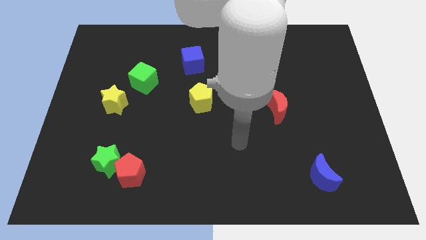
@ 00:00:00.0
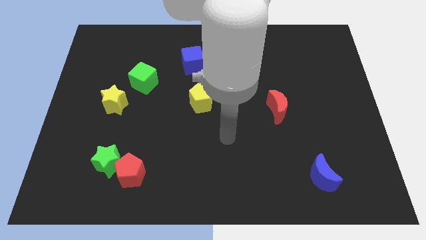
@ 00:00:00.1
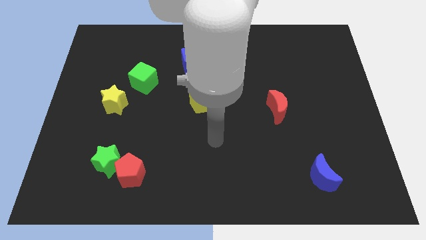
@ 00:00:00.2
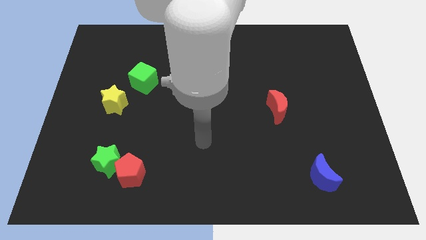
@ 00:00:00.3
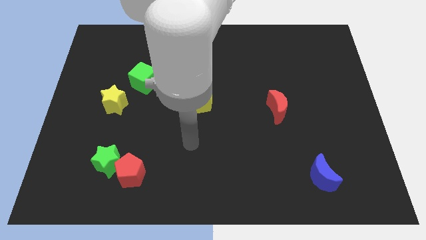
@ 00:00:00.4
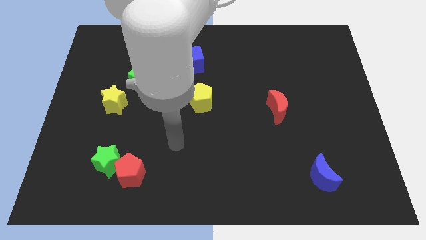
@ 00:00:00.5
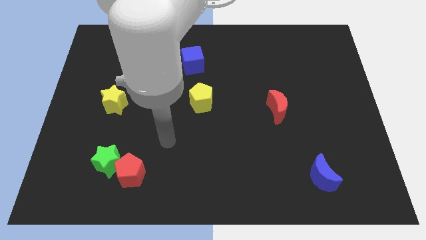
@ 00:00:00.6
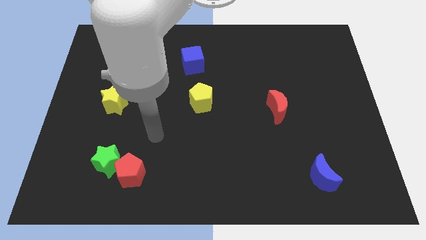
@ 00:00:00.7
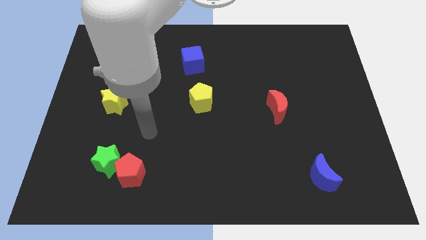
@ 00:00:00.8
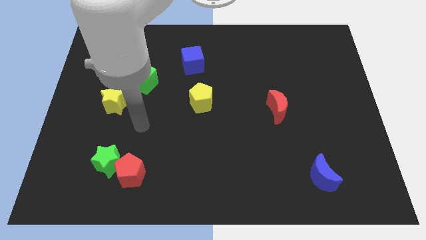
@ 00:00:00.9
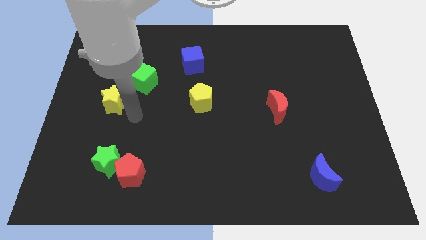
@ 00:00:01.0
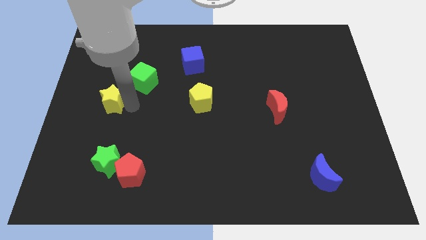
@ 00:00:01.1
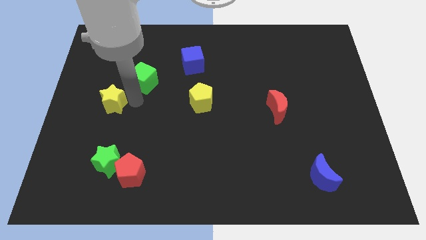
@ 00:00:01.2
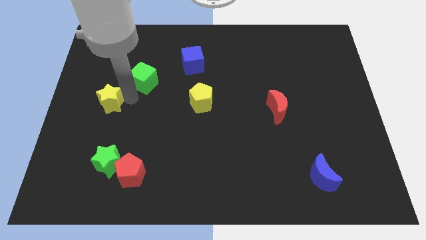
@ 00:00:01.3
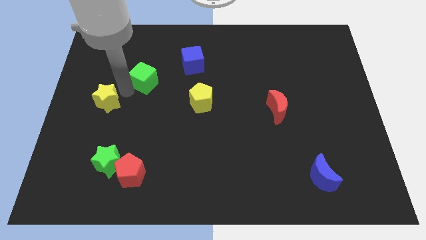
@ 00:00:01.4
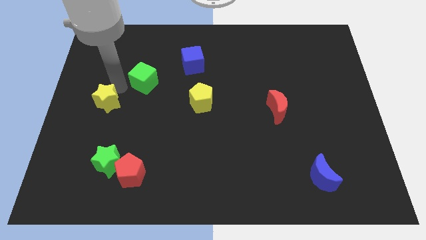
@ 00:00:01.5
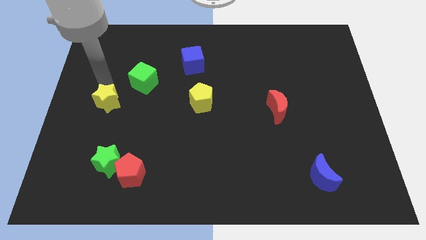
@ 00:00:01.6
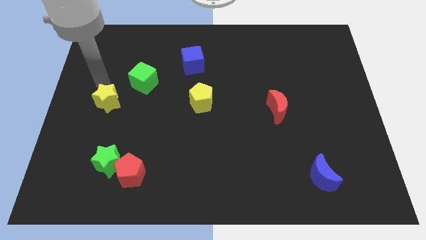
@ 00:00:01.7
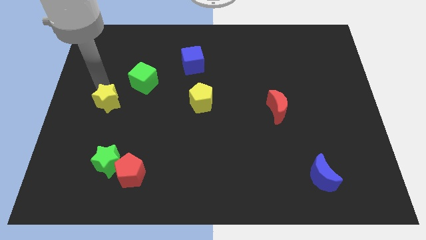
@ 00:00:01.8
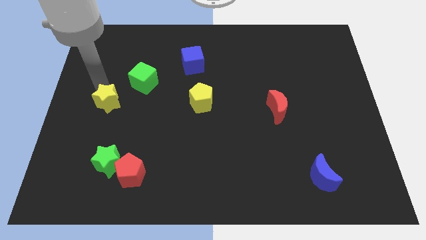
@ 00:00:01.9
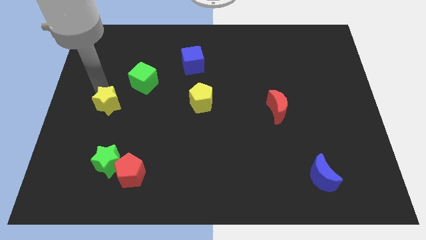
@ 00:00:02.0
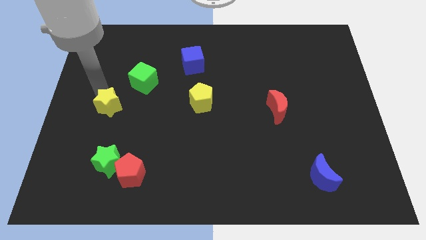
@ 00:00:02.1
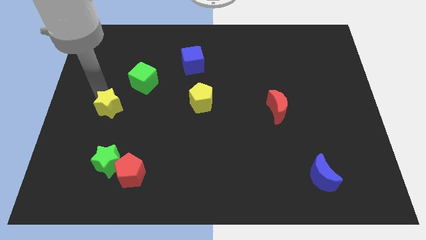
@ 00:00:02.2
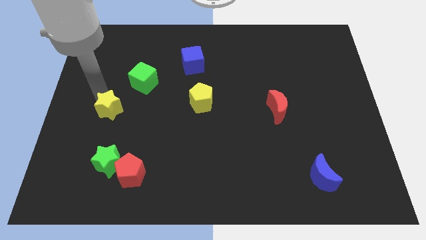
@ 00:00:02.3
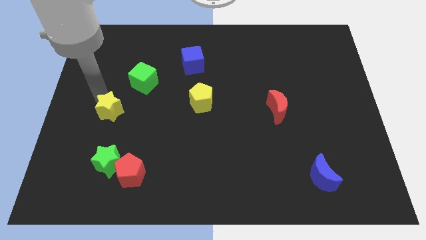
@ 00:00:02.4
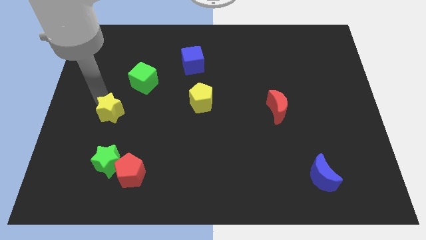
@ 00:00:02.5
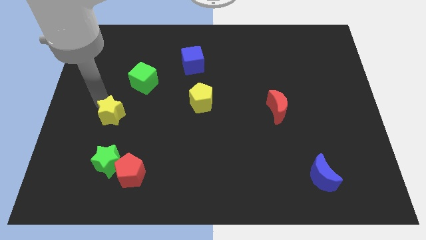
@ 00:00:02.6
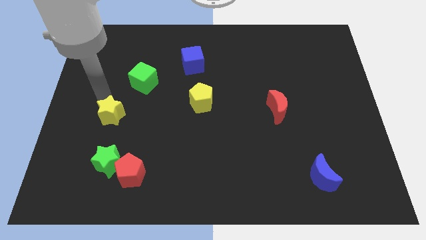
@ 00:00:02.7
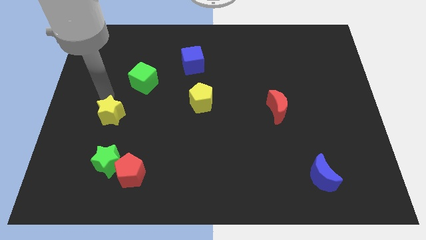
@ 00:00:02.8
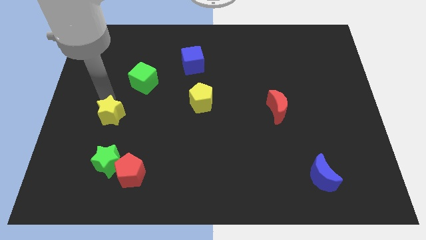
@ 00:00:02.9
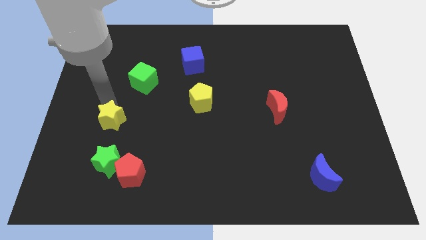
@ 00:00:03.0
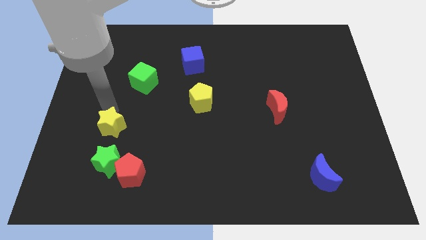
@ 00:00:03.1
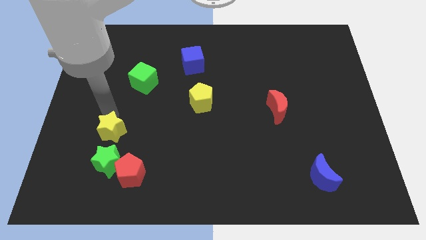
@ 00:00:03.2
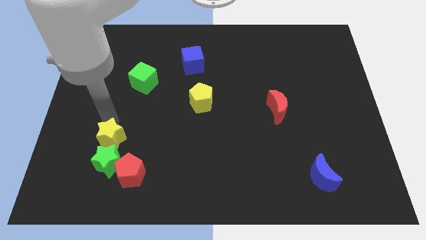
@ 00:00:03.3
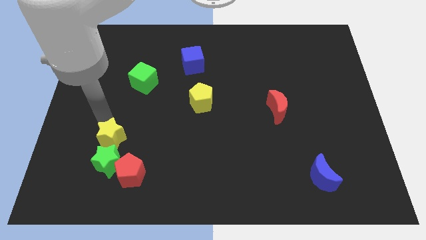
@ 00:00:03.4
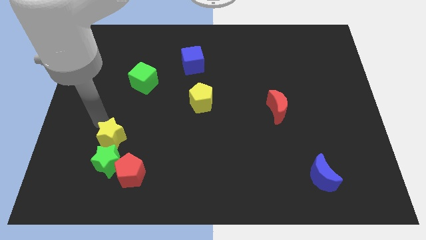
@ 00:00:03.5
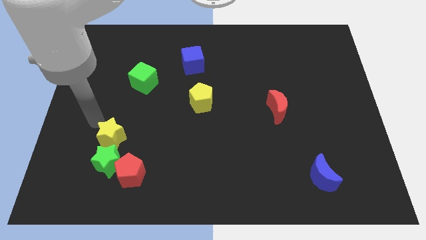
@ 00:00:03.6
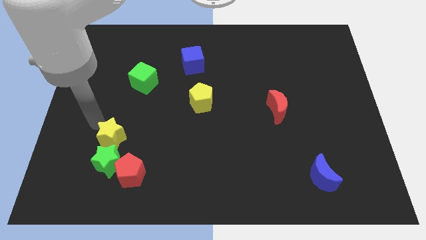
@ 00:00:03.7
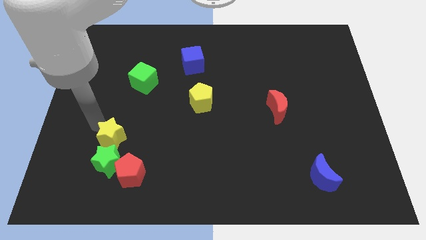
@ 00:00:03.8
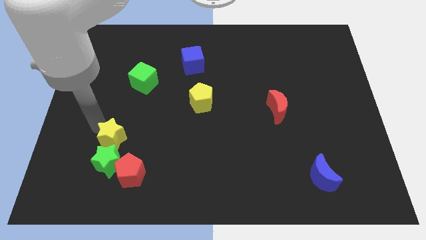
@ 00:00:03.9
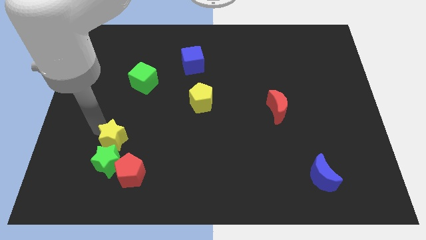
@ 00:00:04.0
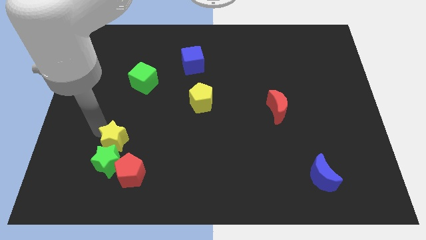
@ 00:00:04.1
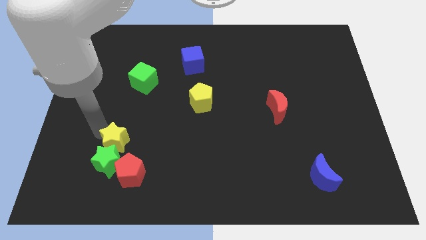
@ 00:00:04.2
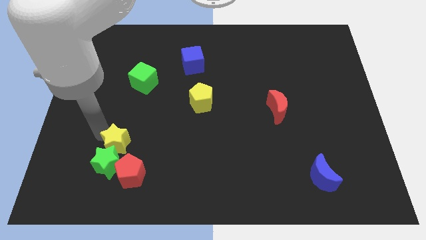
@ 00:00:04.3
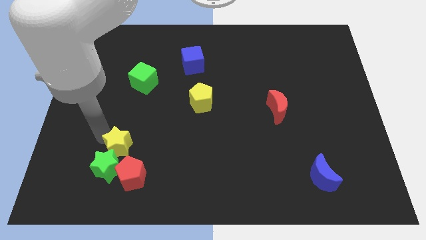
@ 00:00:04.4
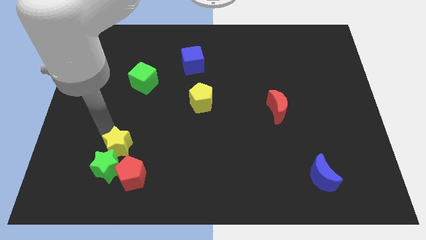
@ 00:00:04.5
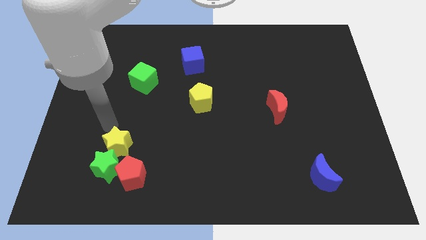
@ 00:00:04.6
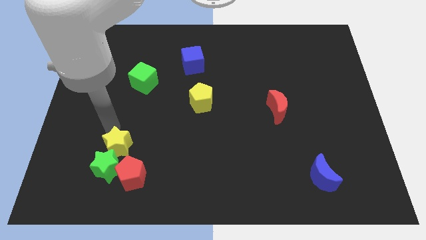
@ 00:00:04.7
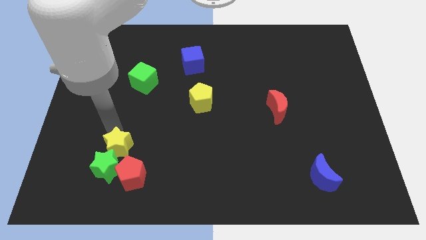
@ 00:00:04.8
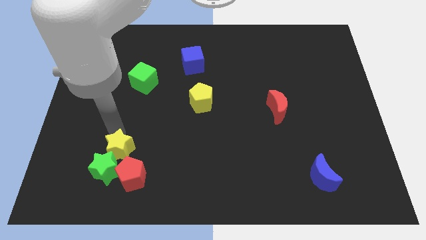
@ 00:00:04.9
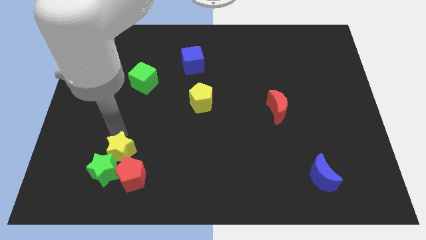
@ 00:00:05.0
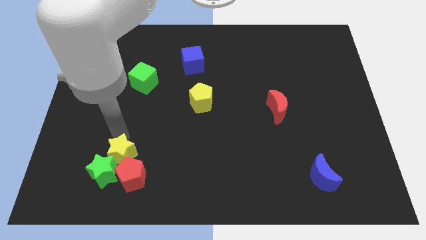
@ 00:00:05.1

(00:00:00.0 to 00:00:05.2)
slide the yellow star close to the red pentagon

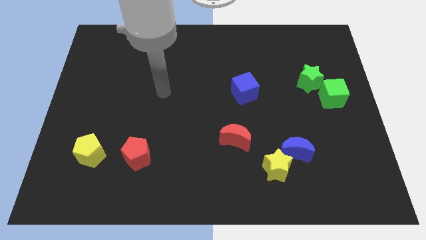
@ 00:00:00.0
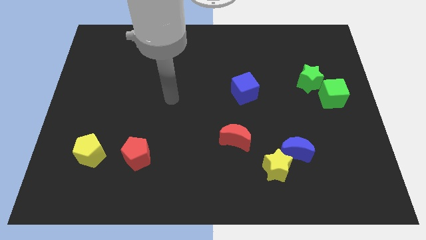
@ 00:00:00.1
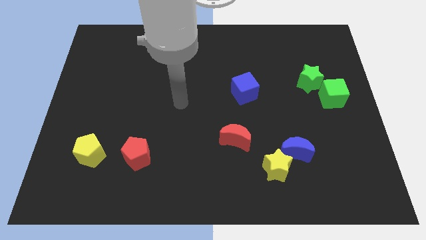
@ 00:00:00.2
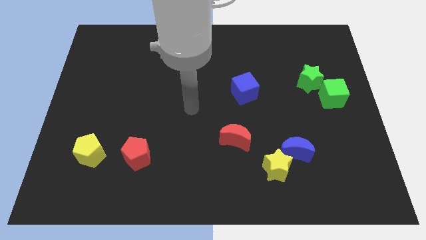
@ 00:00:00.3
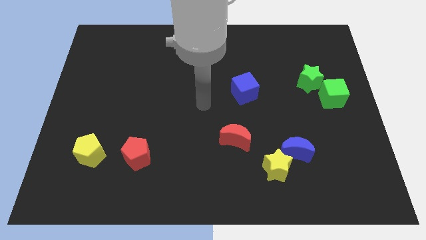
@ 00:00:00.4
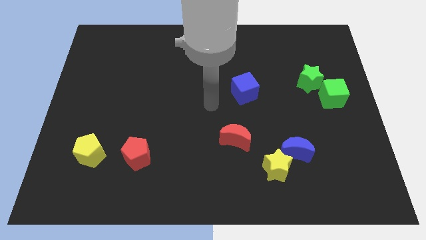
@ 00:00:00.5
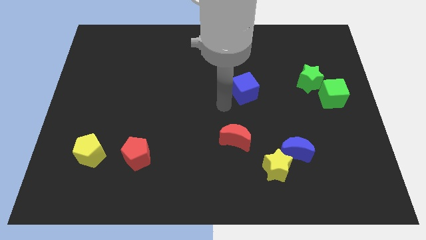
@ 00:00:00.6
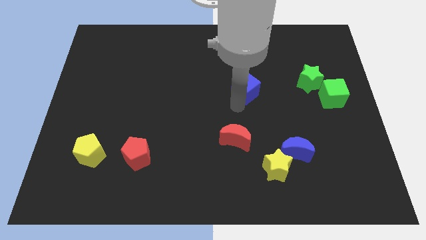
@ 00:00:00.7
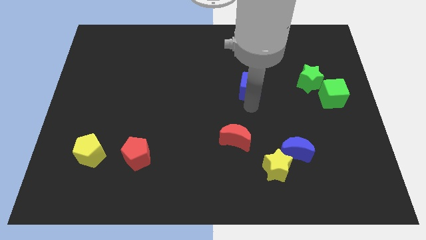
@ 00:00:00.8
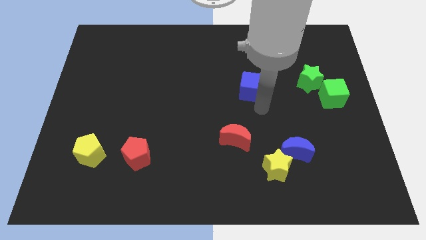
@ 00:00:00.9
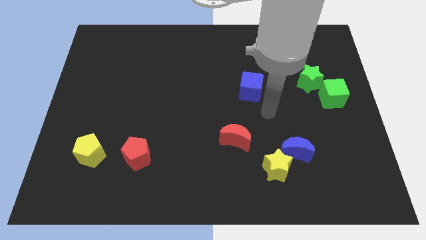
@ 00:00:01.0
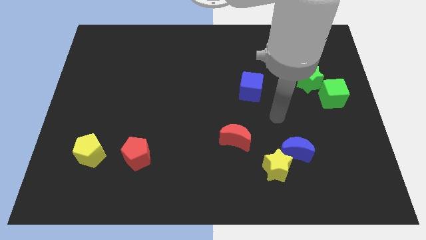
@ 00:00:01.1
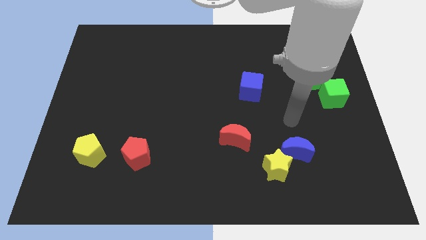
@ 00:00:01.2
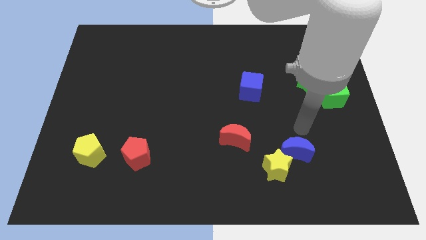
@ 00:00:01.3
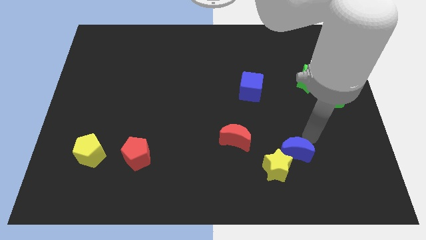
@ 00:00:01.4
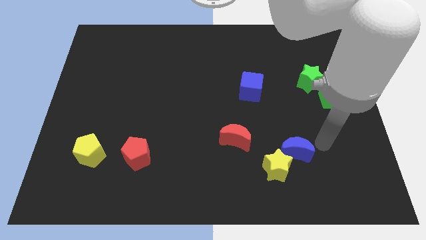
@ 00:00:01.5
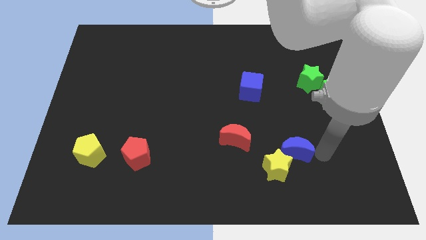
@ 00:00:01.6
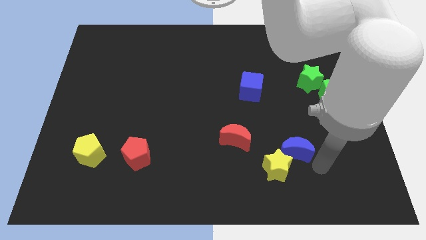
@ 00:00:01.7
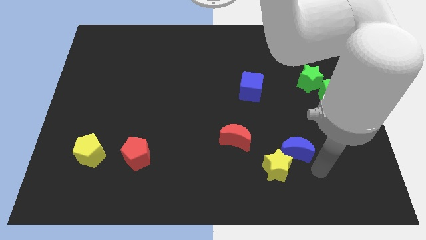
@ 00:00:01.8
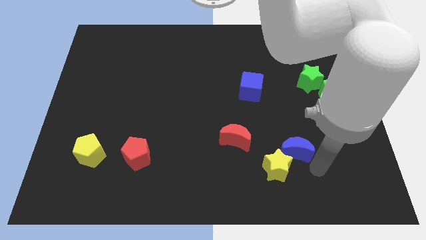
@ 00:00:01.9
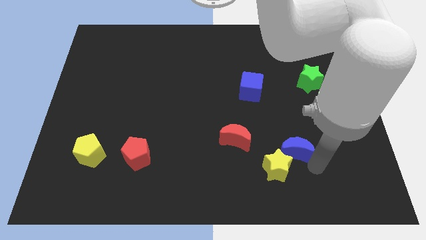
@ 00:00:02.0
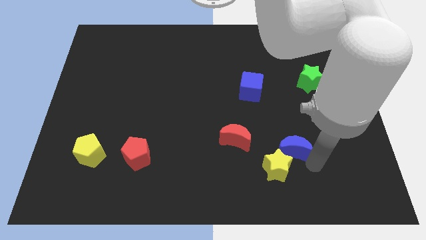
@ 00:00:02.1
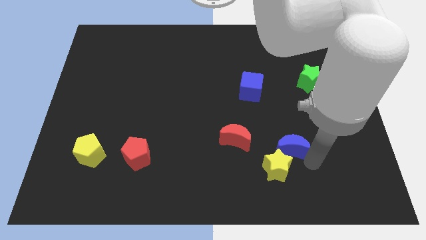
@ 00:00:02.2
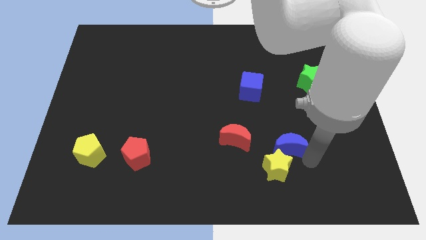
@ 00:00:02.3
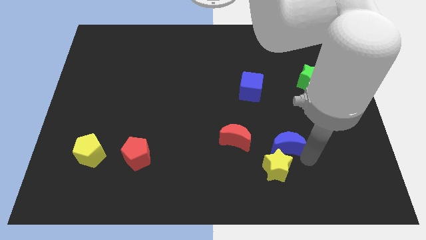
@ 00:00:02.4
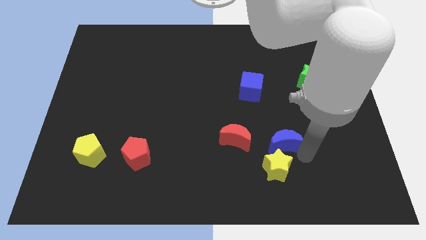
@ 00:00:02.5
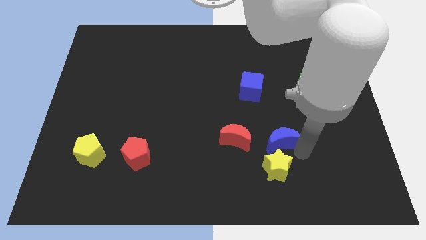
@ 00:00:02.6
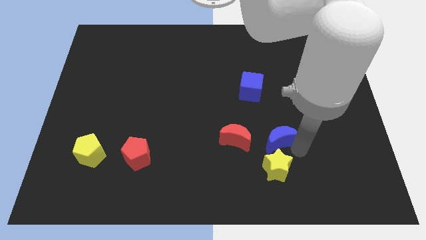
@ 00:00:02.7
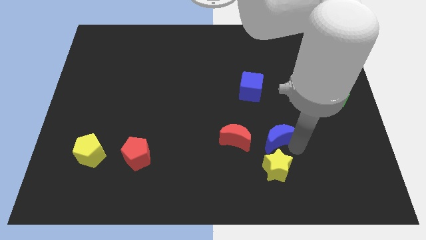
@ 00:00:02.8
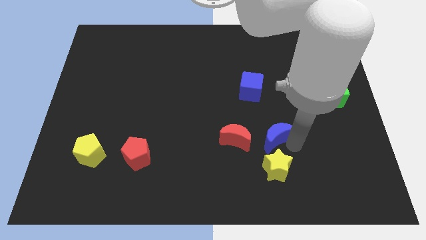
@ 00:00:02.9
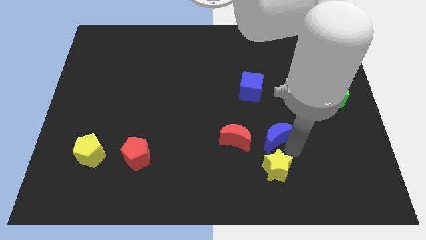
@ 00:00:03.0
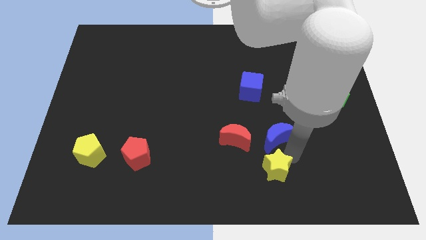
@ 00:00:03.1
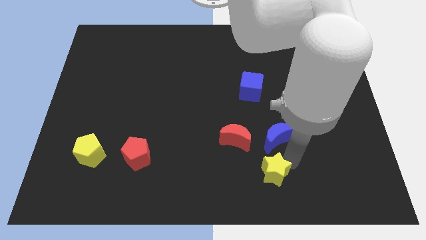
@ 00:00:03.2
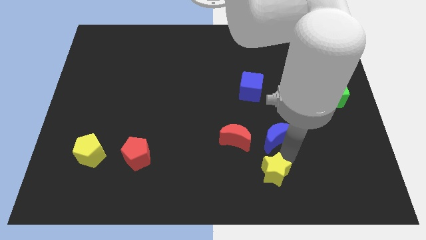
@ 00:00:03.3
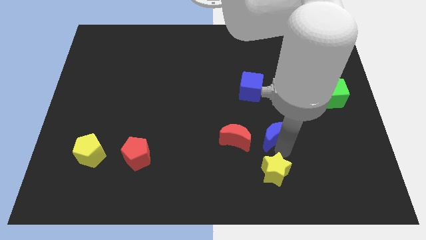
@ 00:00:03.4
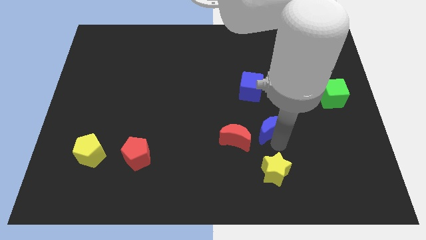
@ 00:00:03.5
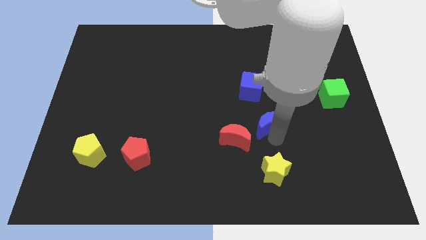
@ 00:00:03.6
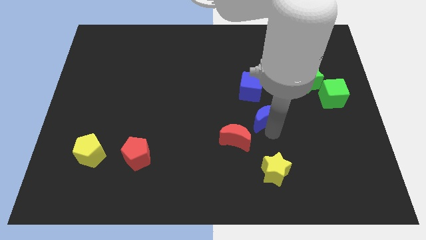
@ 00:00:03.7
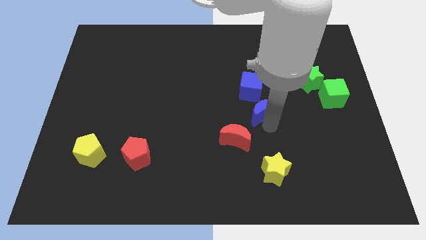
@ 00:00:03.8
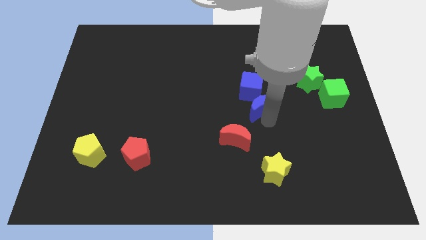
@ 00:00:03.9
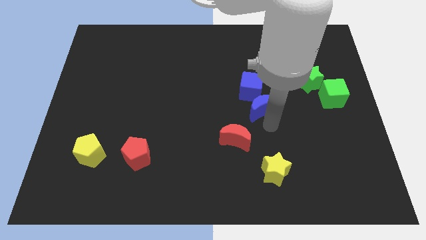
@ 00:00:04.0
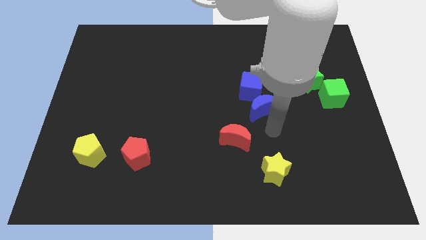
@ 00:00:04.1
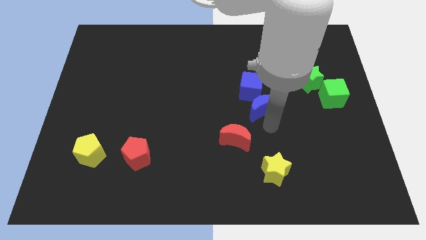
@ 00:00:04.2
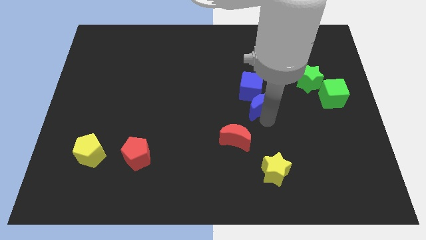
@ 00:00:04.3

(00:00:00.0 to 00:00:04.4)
move the blue moon to the blue cube
